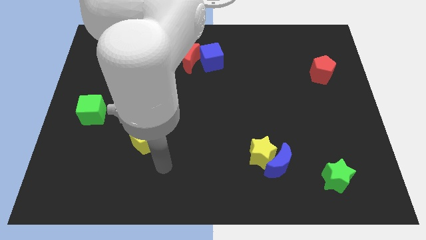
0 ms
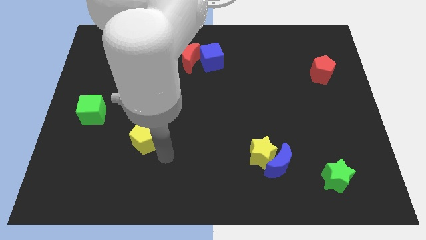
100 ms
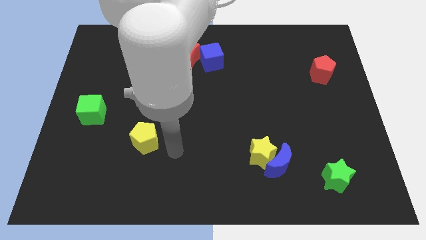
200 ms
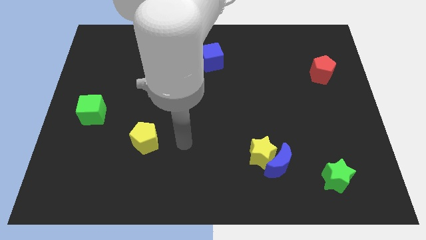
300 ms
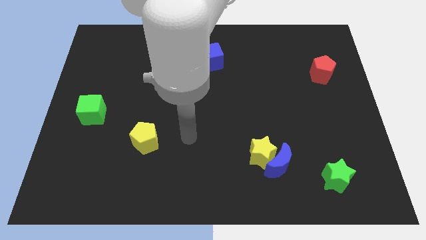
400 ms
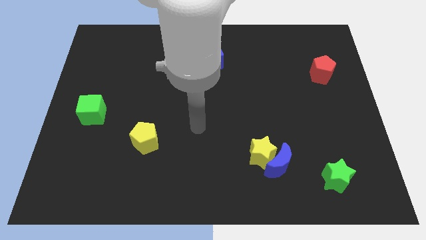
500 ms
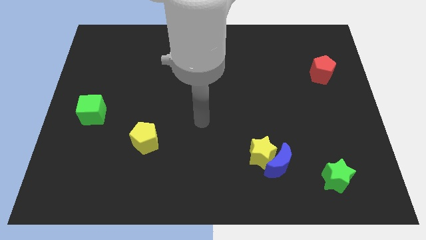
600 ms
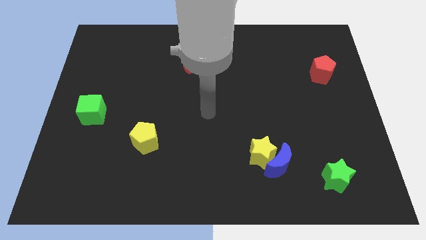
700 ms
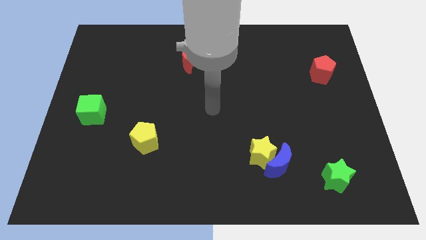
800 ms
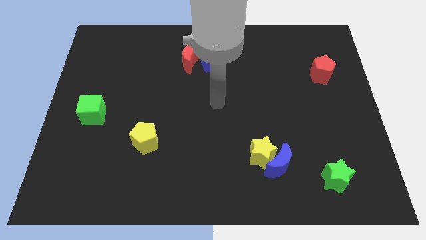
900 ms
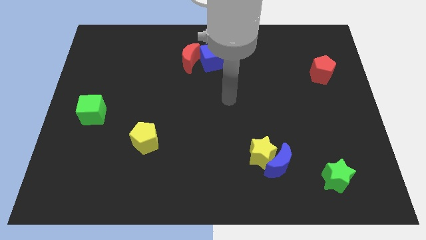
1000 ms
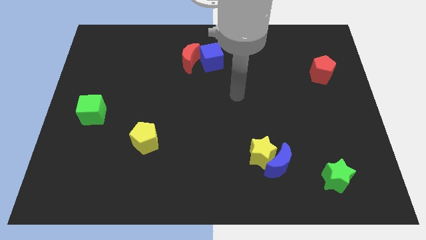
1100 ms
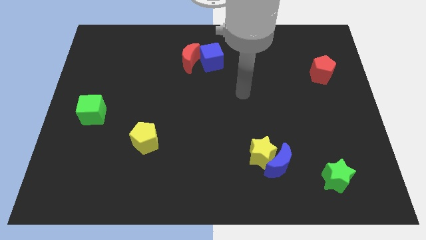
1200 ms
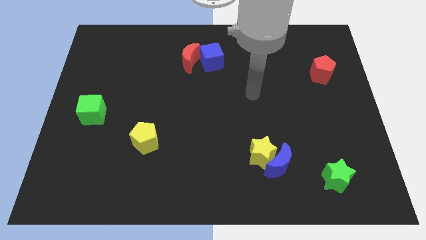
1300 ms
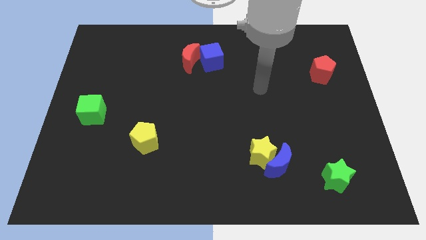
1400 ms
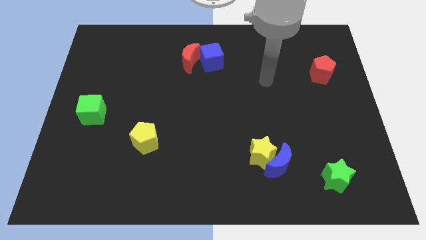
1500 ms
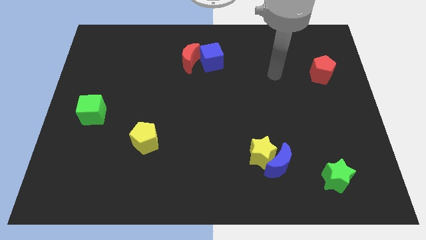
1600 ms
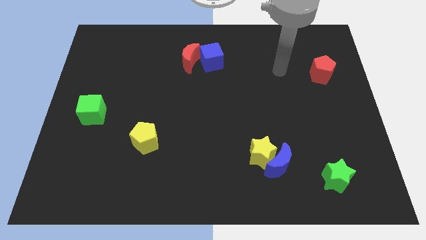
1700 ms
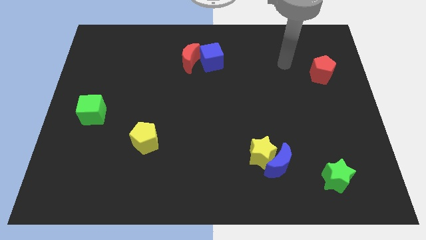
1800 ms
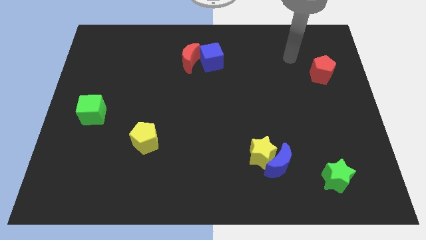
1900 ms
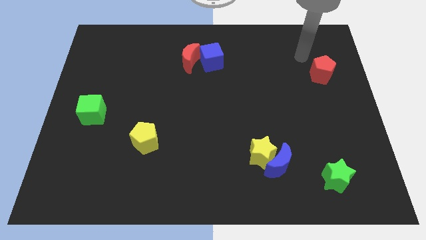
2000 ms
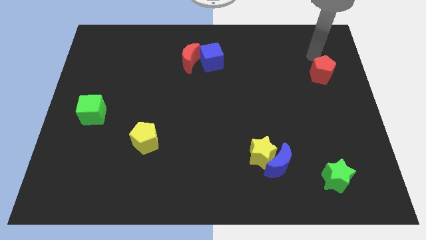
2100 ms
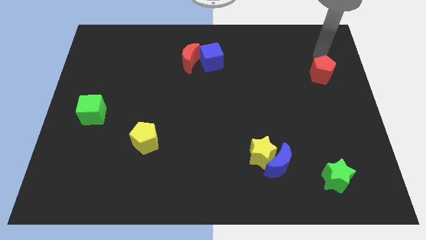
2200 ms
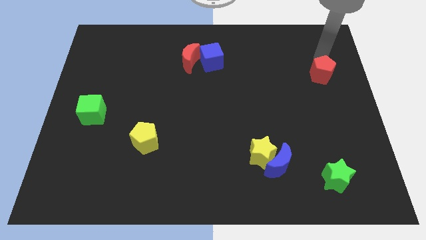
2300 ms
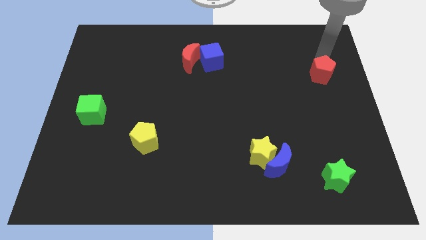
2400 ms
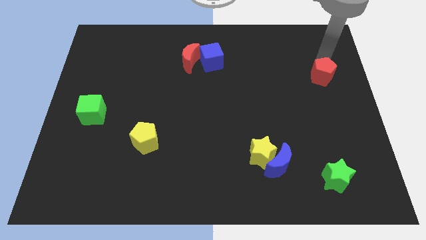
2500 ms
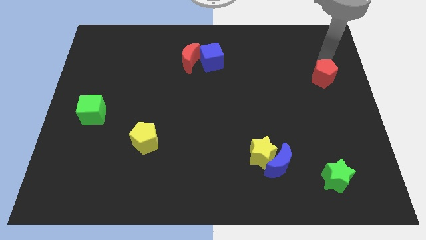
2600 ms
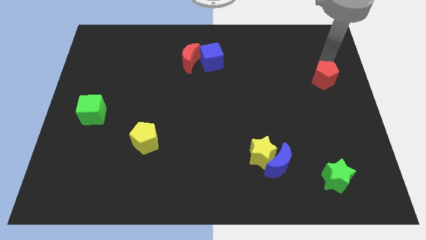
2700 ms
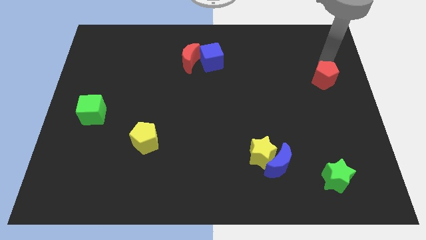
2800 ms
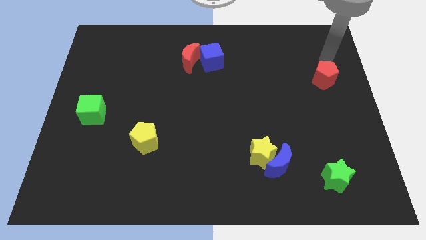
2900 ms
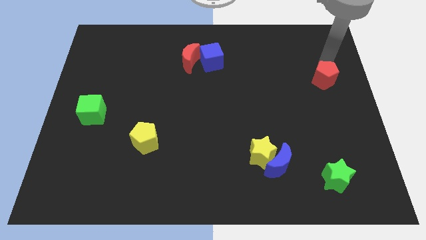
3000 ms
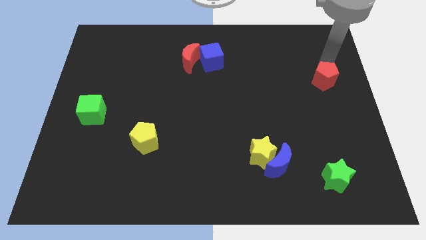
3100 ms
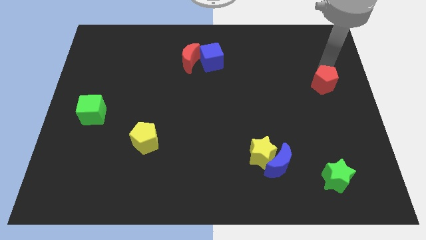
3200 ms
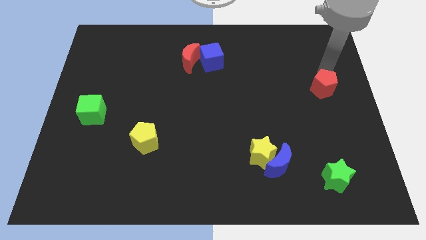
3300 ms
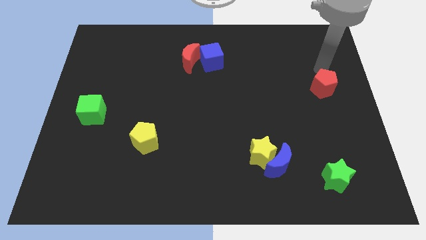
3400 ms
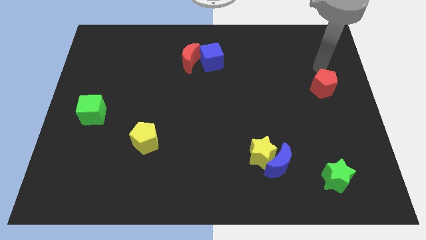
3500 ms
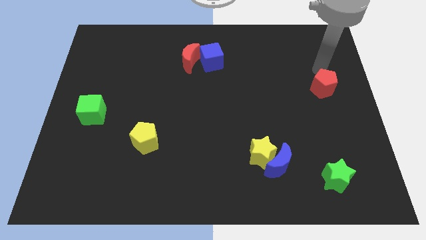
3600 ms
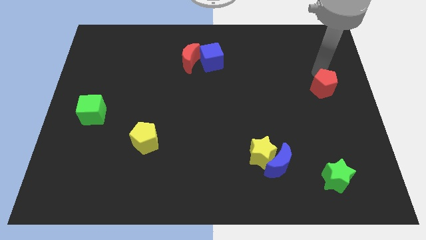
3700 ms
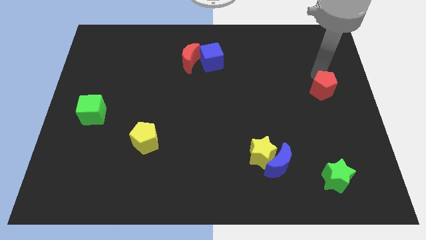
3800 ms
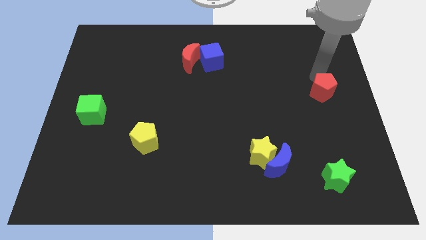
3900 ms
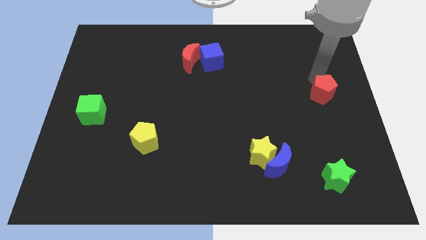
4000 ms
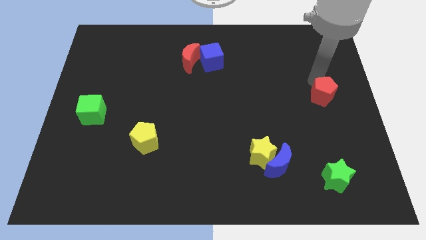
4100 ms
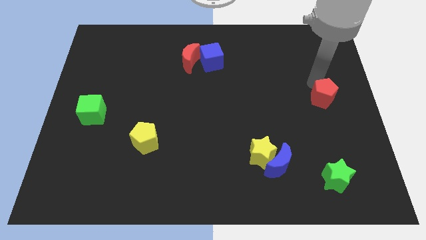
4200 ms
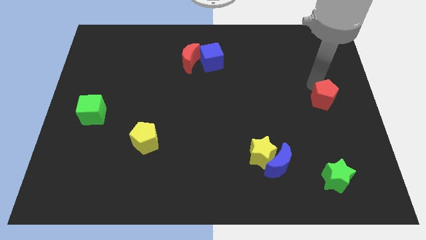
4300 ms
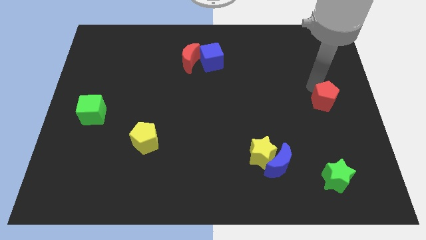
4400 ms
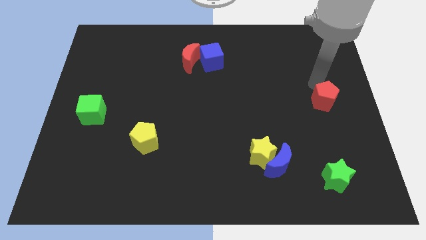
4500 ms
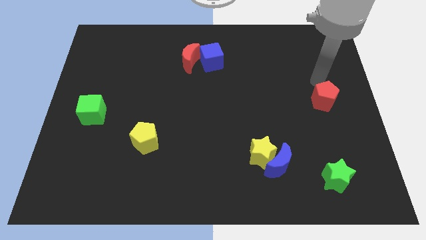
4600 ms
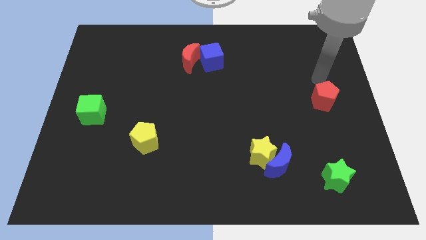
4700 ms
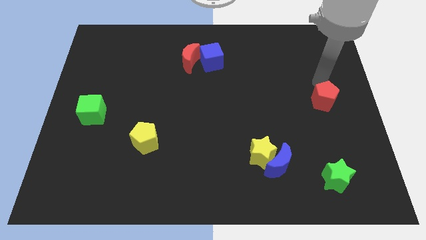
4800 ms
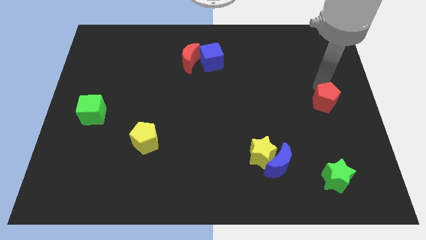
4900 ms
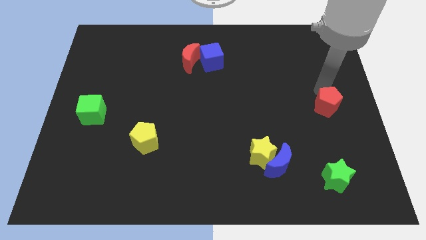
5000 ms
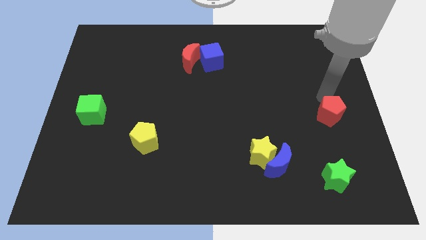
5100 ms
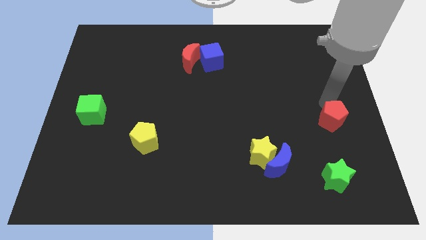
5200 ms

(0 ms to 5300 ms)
move the red pentagon to the top side of the green star

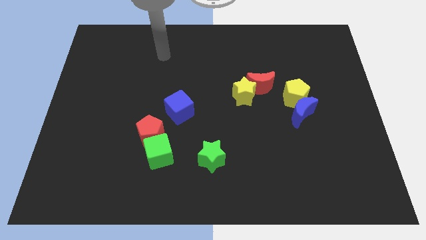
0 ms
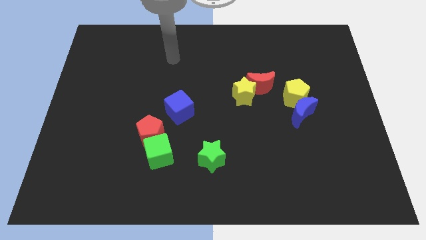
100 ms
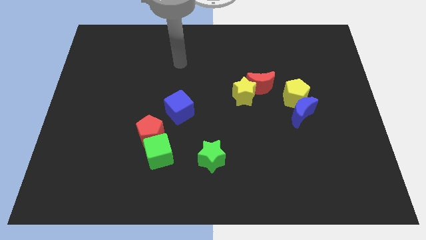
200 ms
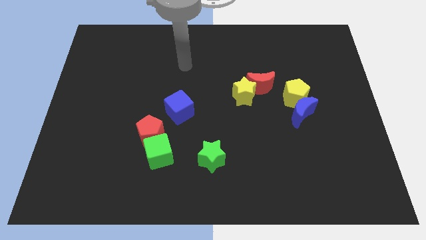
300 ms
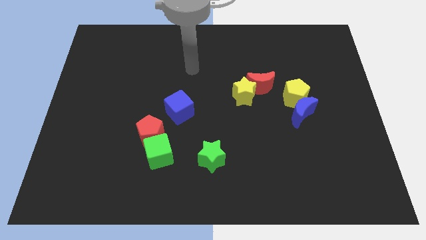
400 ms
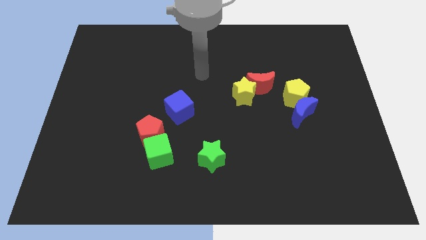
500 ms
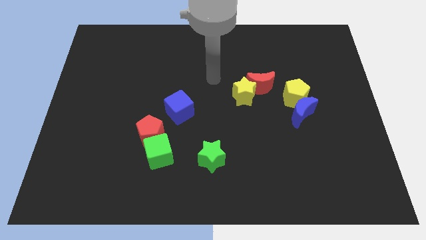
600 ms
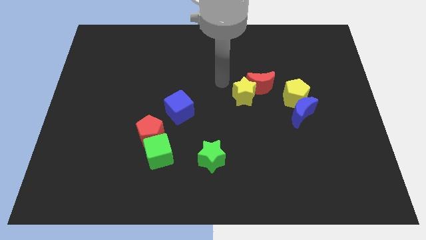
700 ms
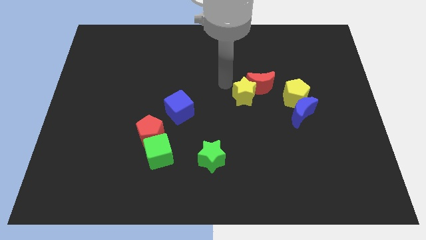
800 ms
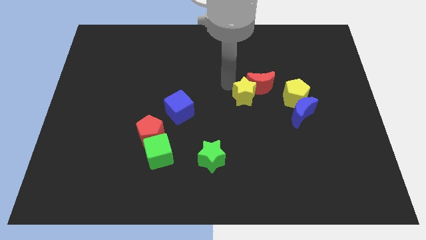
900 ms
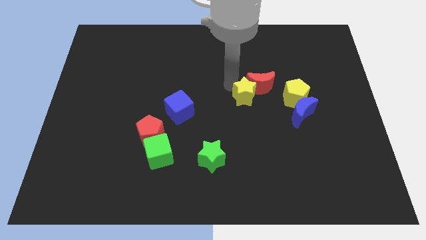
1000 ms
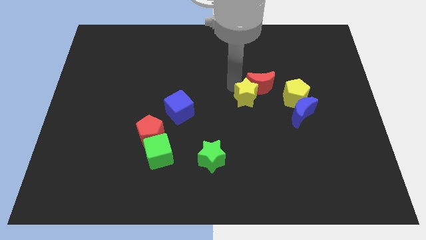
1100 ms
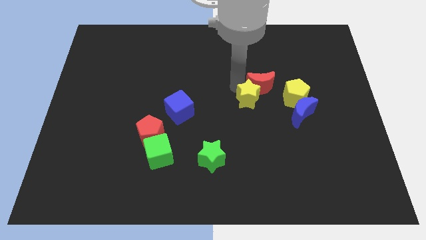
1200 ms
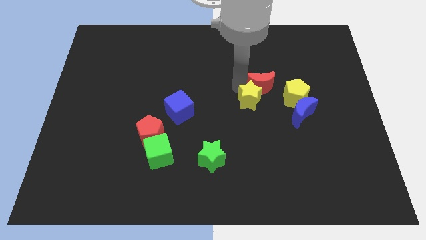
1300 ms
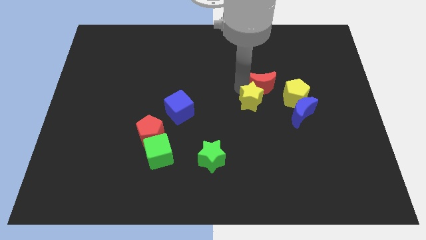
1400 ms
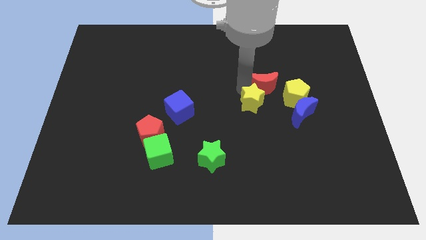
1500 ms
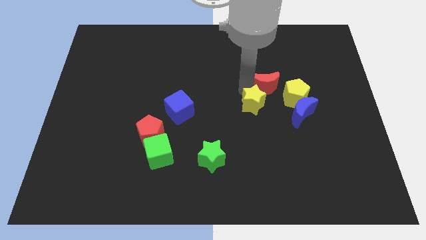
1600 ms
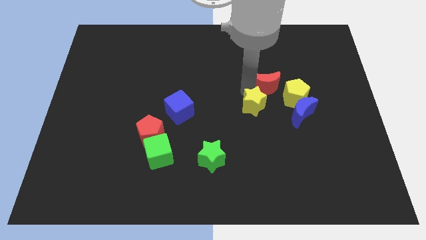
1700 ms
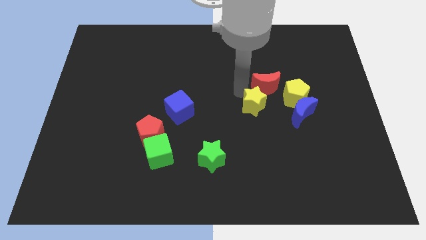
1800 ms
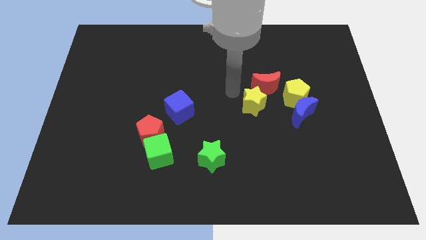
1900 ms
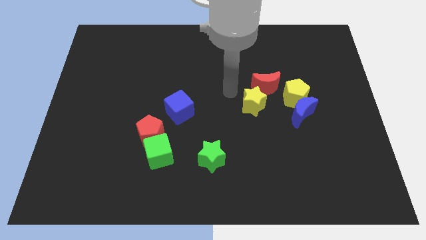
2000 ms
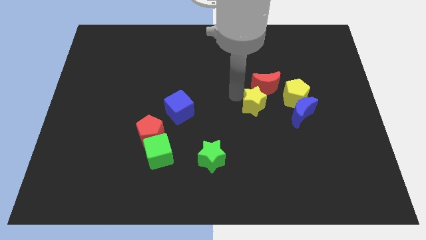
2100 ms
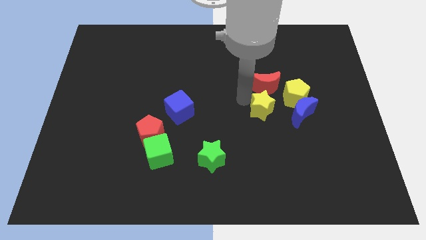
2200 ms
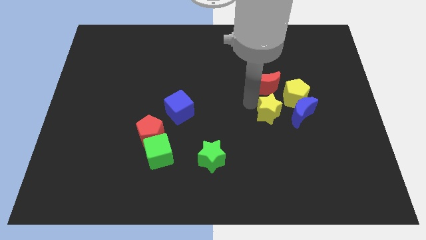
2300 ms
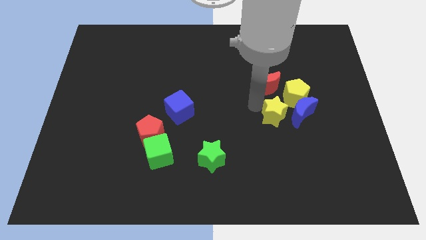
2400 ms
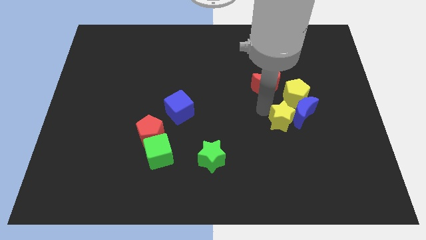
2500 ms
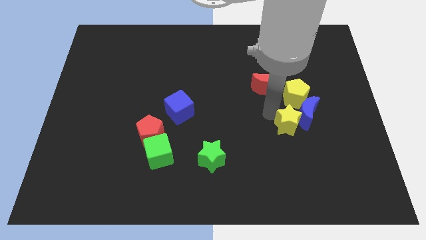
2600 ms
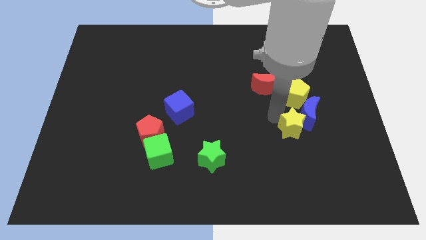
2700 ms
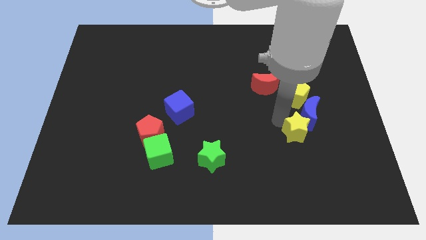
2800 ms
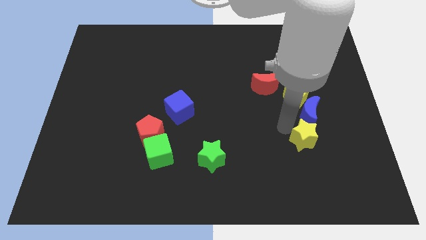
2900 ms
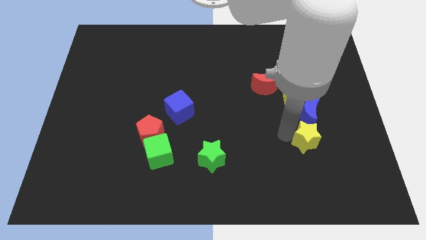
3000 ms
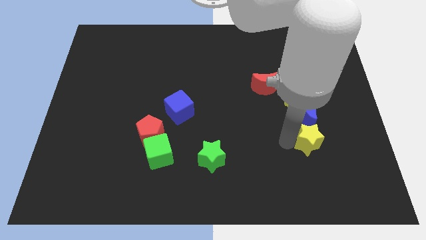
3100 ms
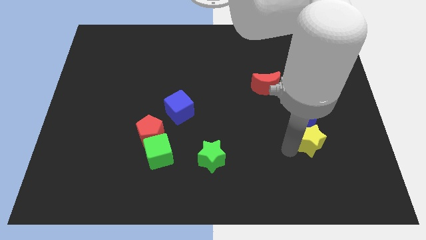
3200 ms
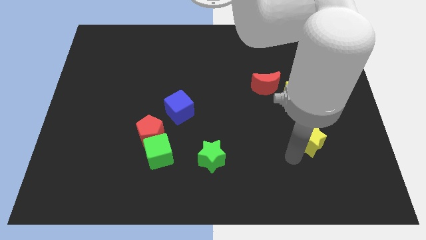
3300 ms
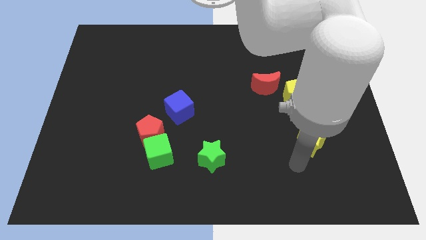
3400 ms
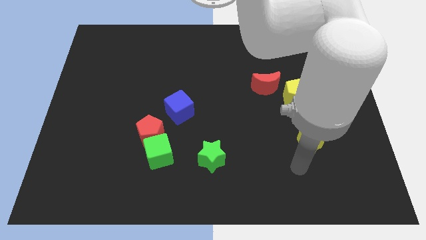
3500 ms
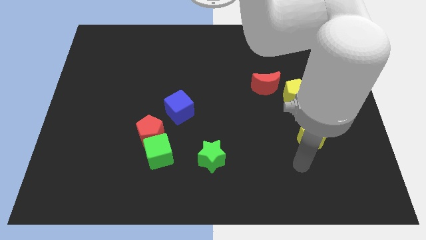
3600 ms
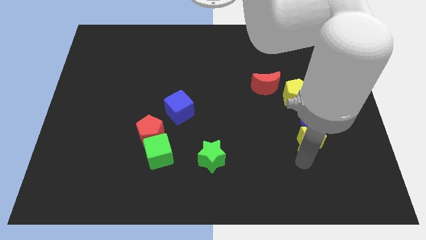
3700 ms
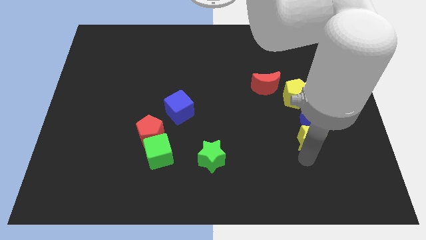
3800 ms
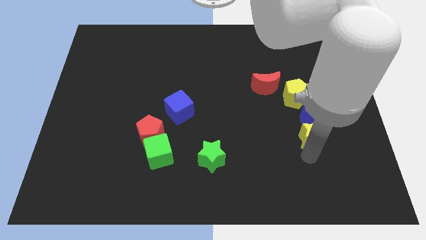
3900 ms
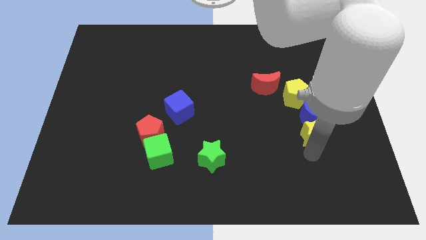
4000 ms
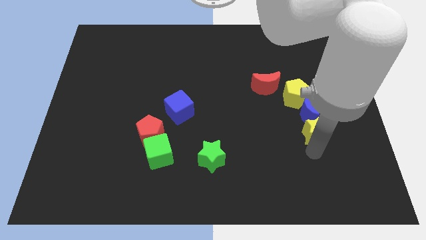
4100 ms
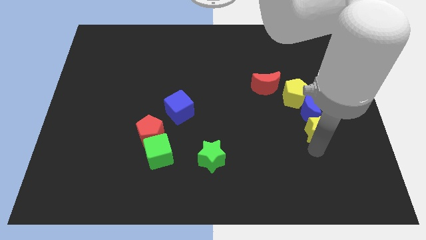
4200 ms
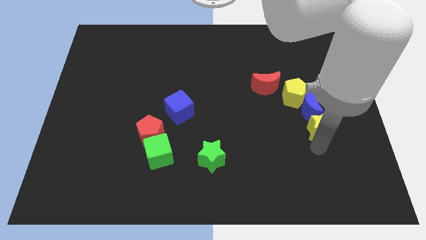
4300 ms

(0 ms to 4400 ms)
move the yellow star diagonally down and to the right of the yellow pentagon
